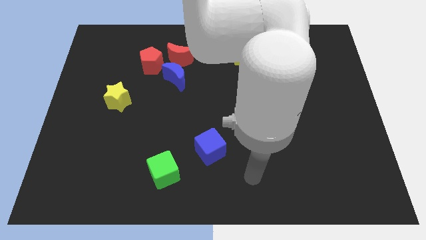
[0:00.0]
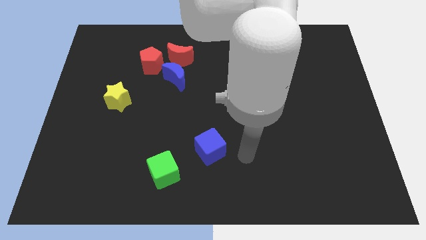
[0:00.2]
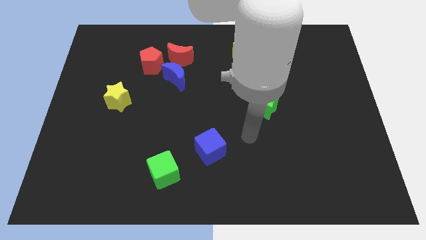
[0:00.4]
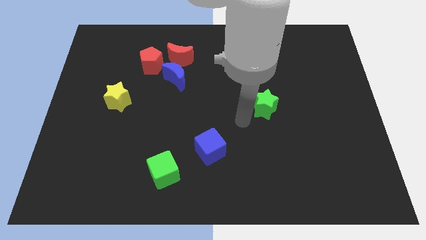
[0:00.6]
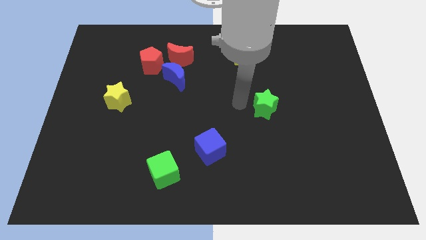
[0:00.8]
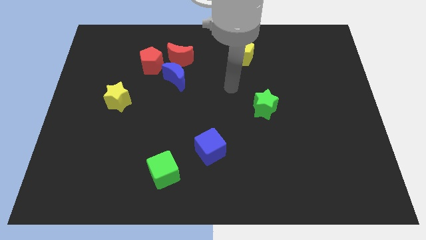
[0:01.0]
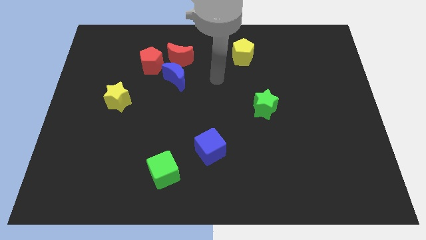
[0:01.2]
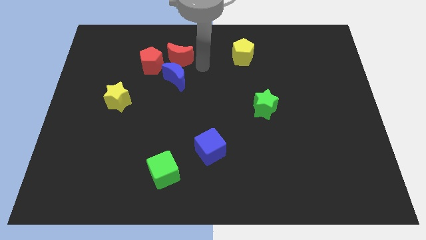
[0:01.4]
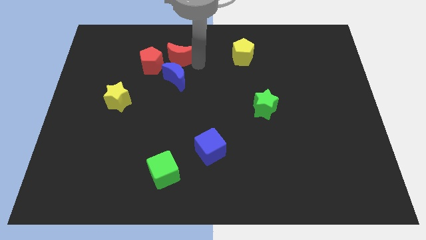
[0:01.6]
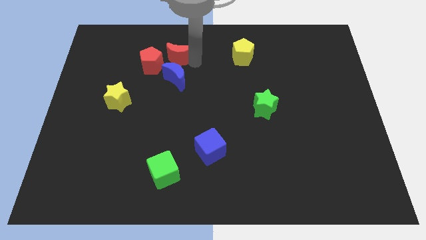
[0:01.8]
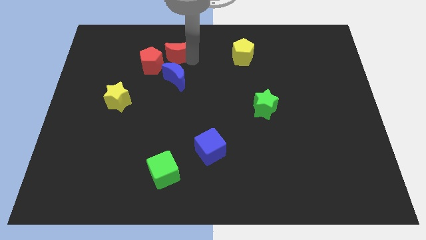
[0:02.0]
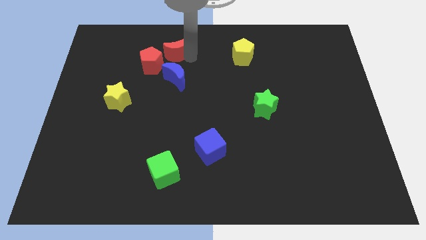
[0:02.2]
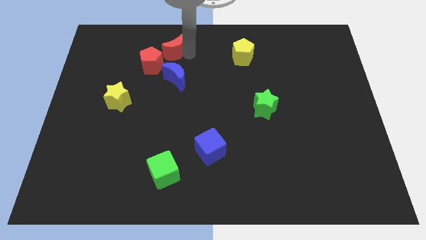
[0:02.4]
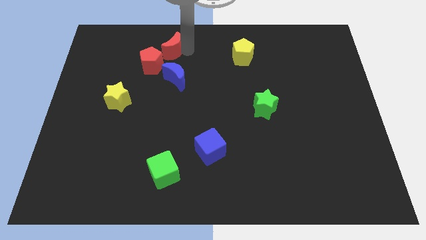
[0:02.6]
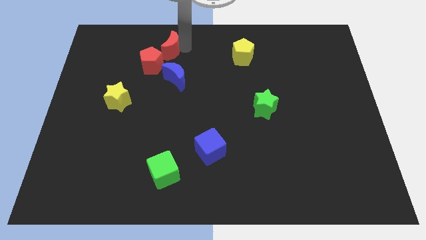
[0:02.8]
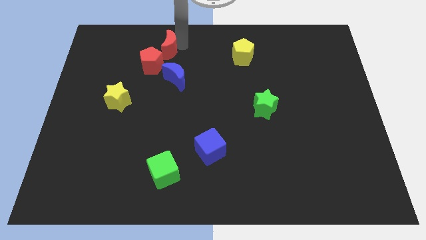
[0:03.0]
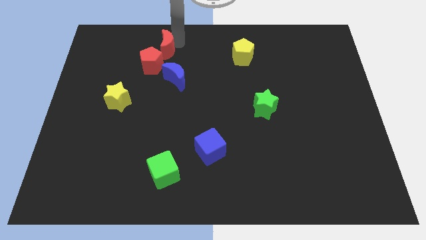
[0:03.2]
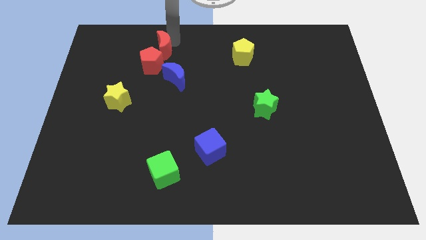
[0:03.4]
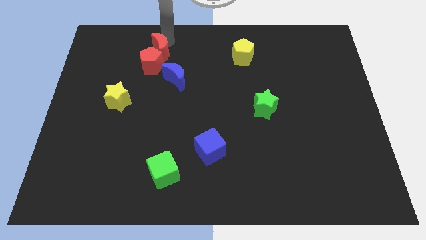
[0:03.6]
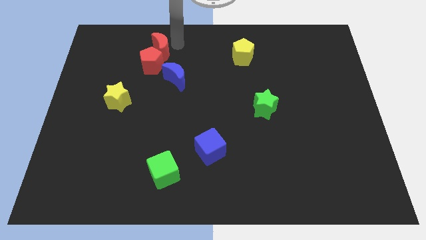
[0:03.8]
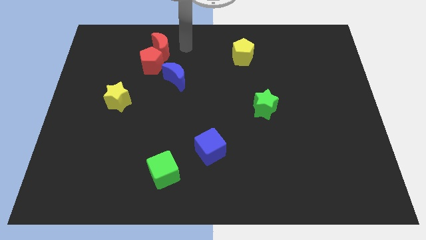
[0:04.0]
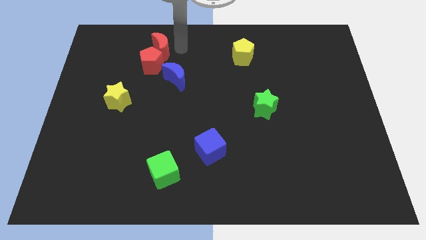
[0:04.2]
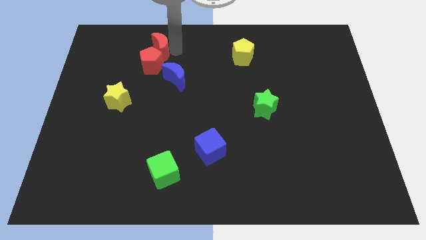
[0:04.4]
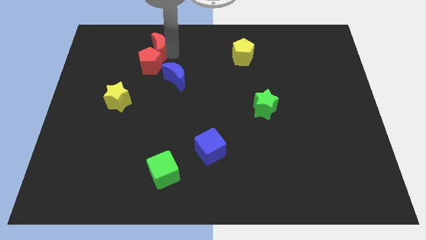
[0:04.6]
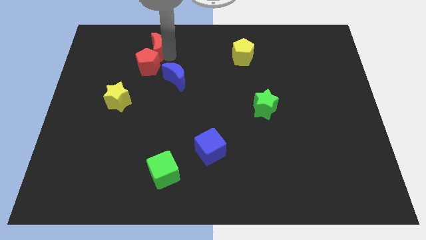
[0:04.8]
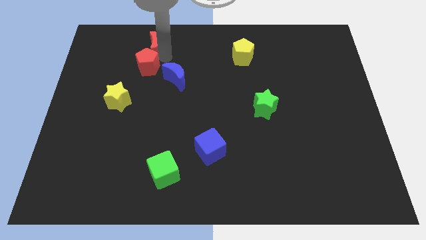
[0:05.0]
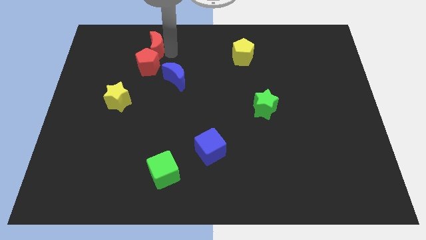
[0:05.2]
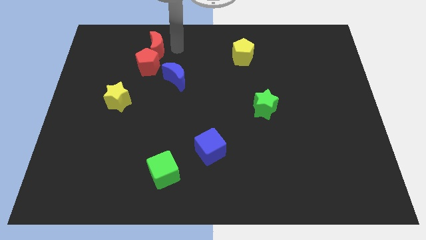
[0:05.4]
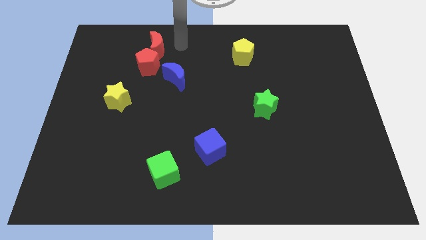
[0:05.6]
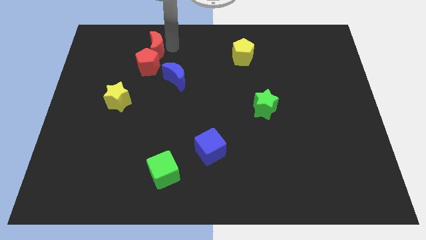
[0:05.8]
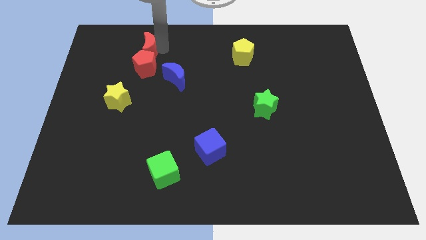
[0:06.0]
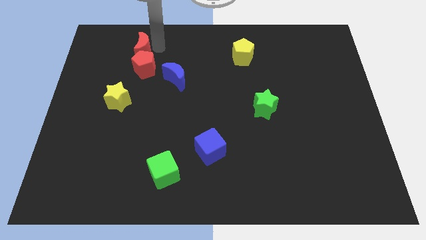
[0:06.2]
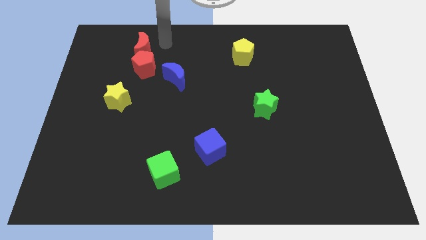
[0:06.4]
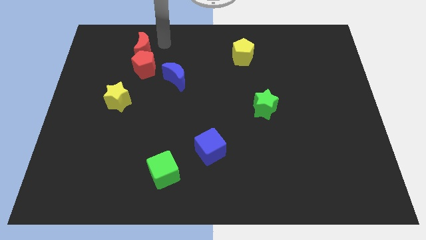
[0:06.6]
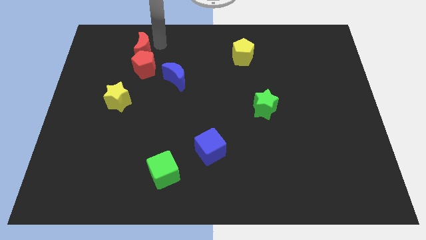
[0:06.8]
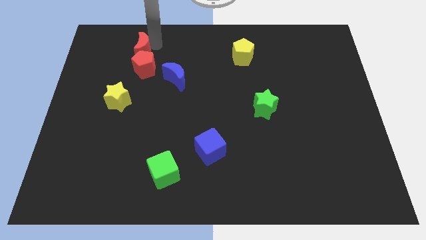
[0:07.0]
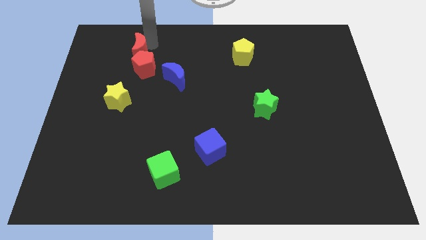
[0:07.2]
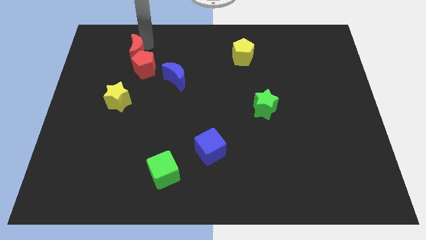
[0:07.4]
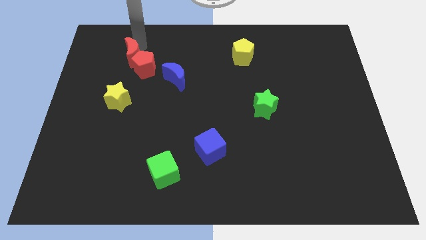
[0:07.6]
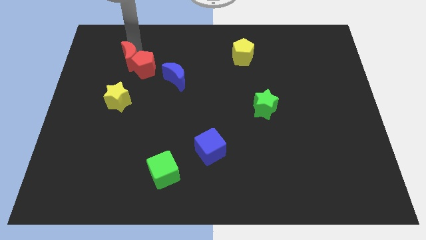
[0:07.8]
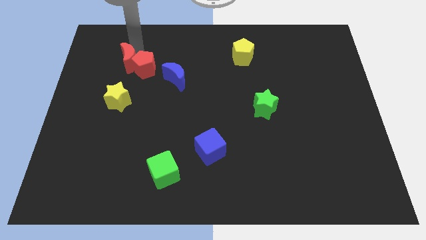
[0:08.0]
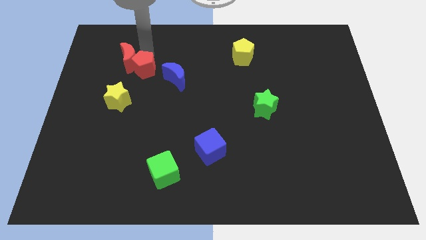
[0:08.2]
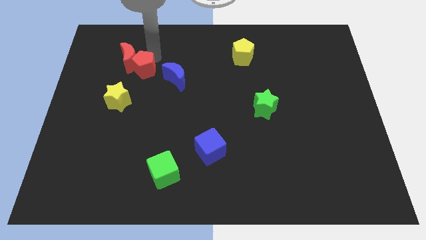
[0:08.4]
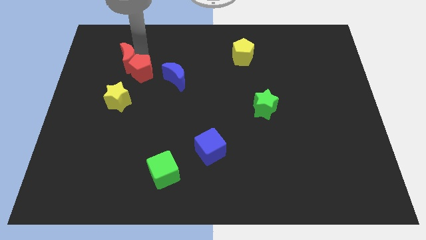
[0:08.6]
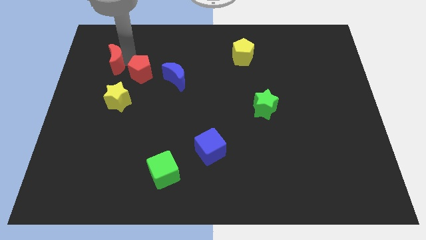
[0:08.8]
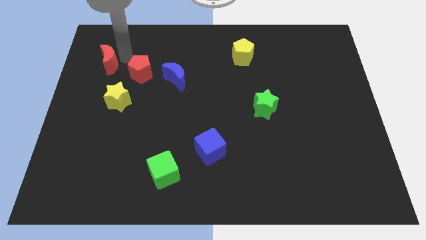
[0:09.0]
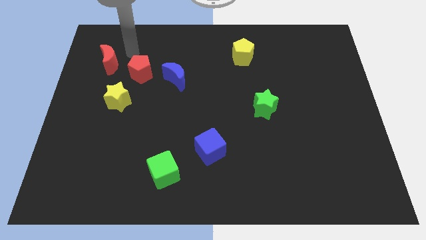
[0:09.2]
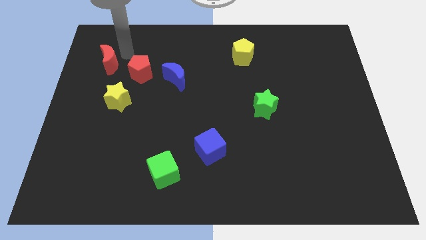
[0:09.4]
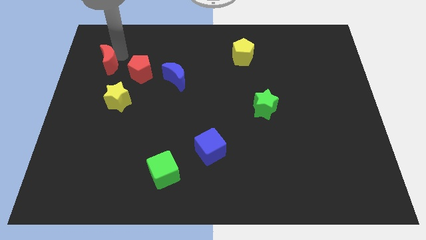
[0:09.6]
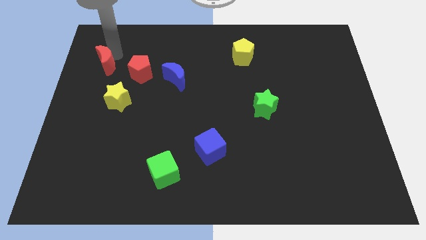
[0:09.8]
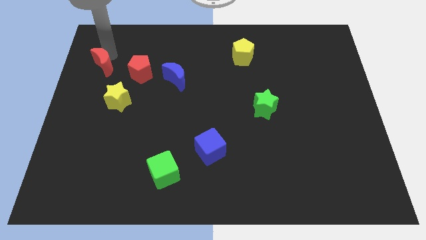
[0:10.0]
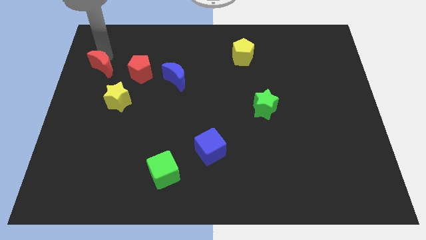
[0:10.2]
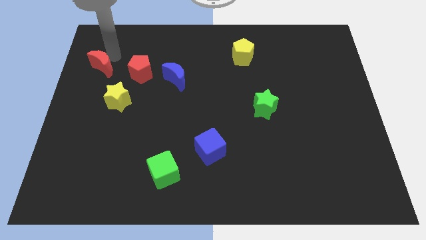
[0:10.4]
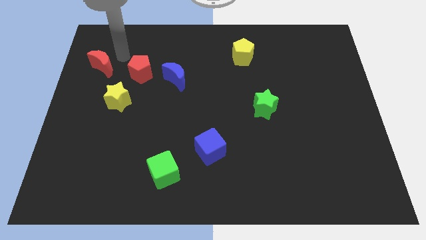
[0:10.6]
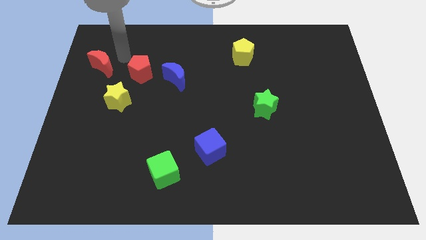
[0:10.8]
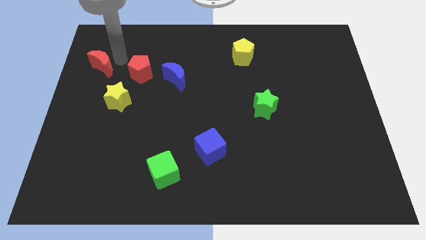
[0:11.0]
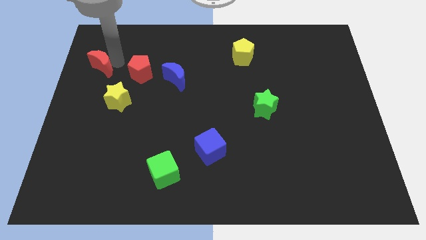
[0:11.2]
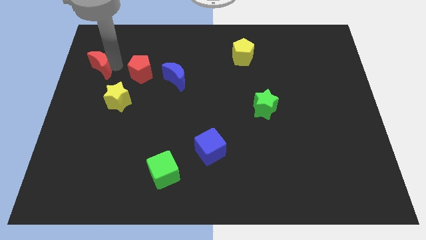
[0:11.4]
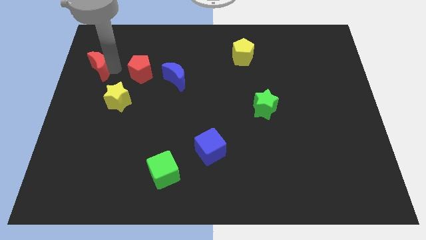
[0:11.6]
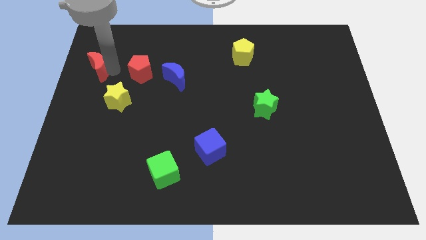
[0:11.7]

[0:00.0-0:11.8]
put the red moon to the left side of the board
